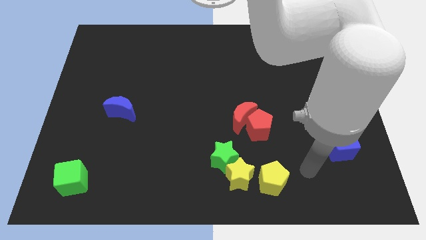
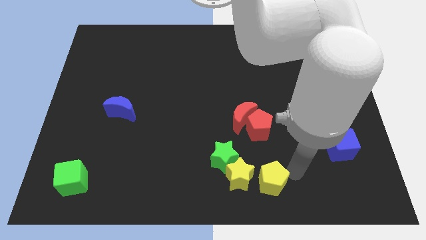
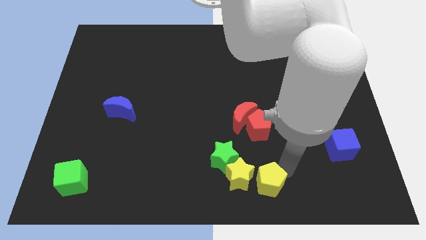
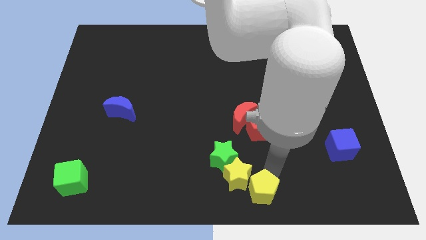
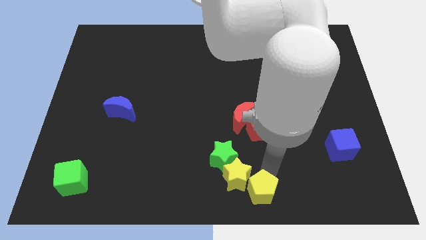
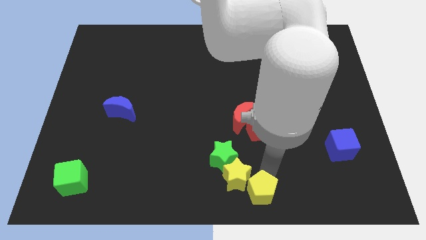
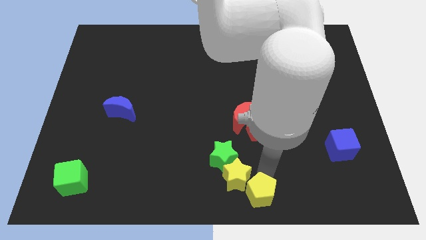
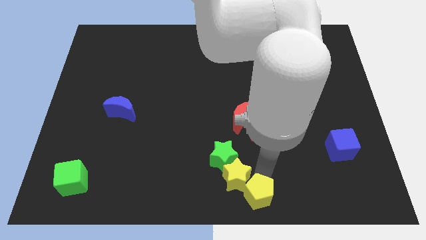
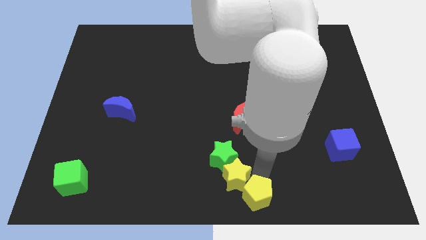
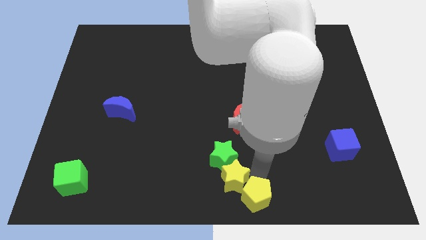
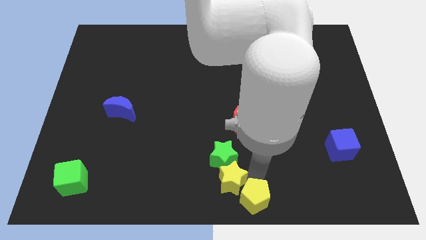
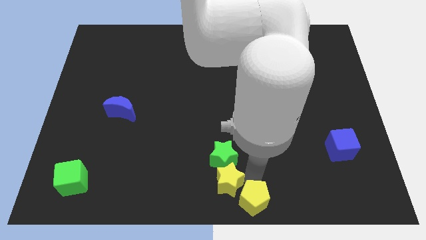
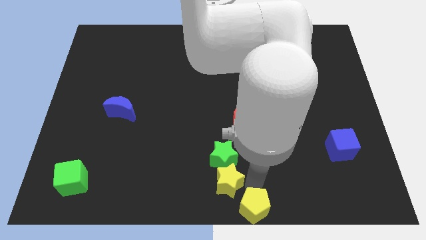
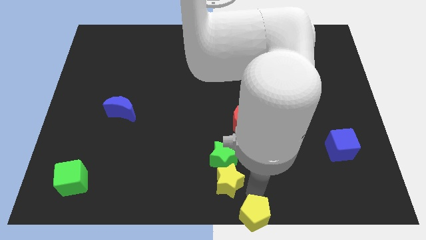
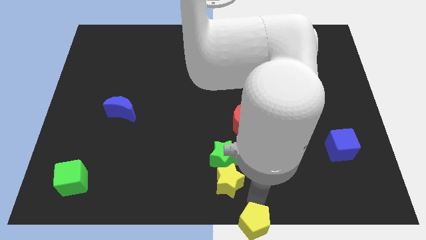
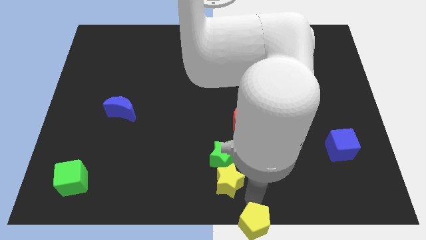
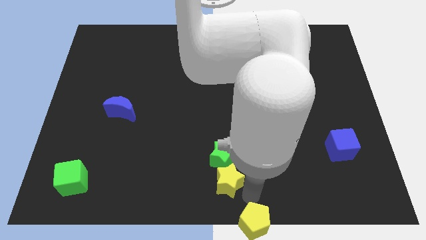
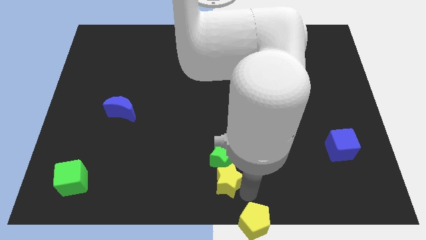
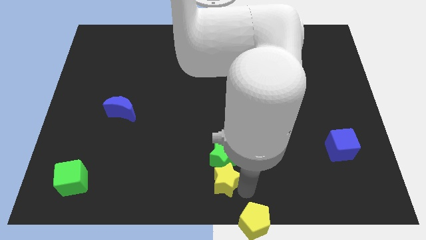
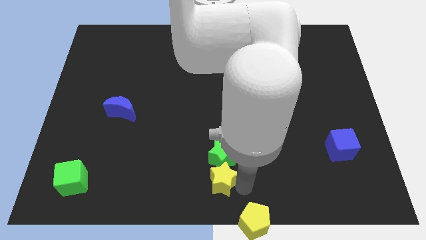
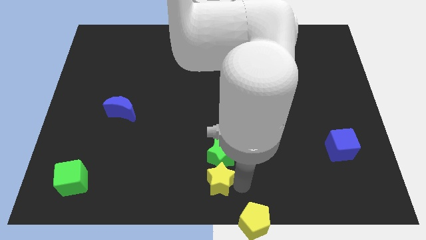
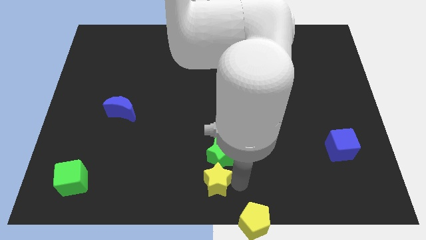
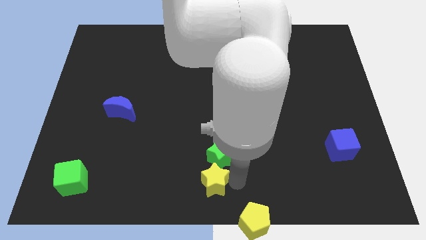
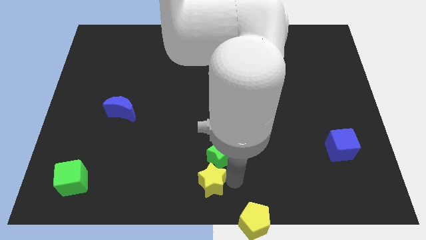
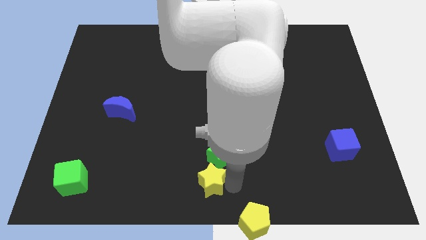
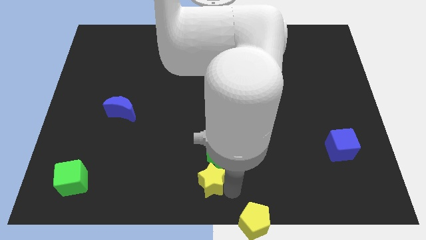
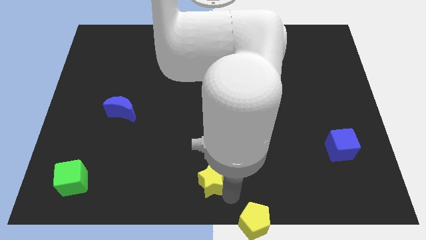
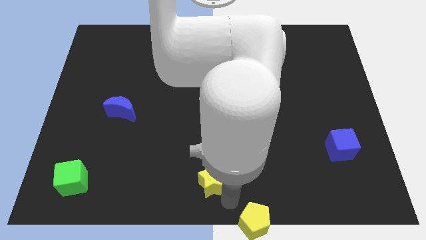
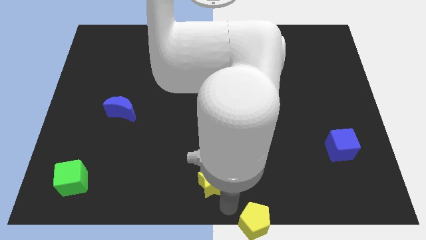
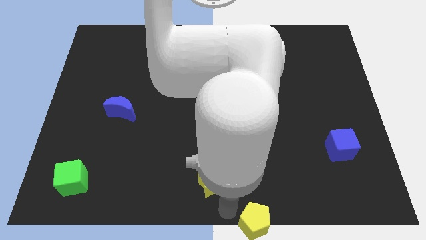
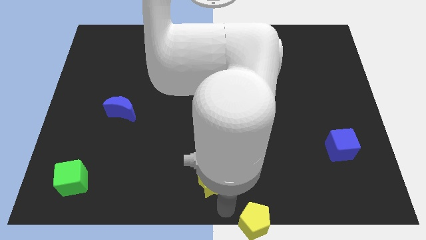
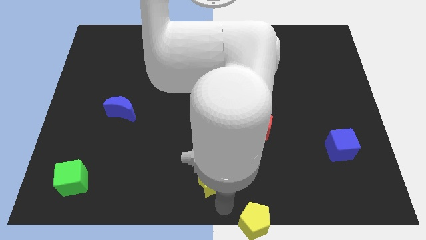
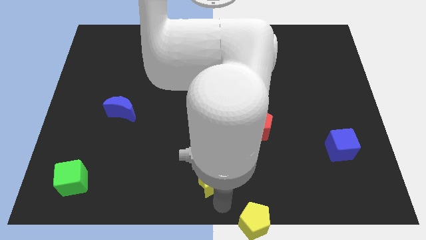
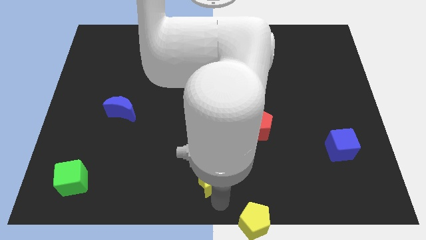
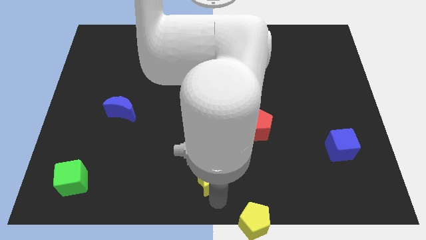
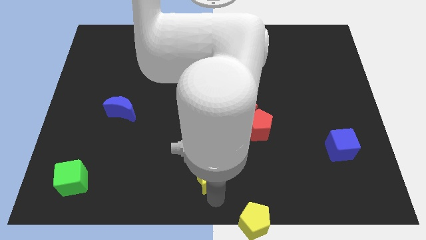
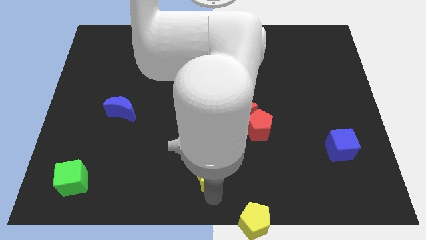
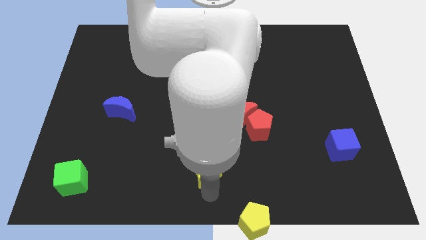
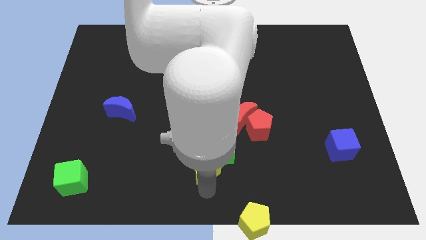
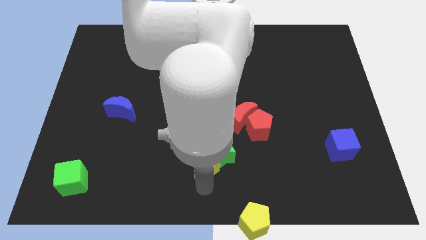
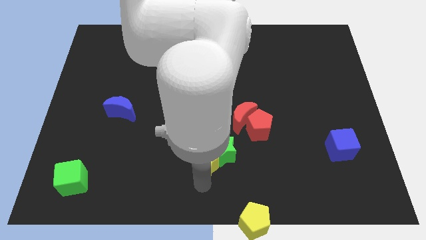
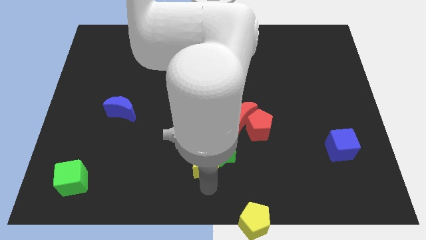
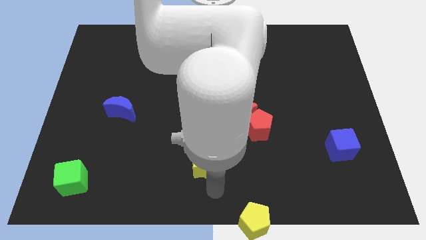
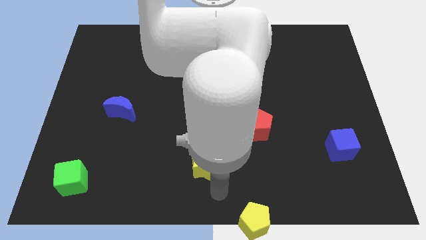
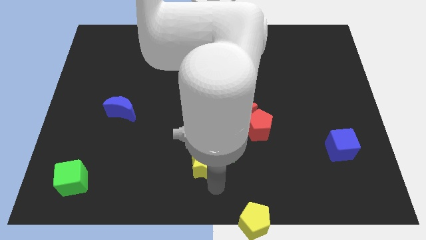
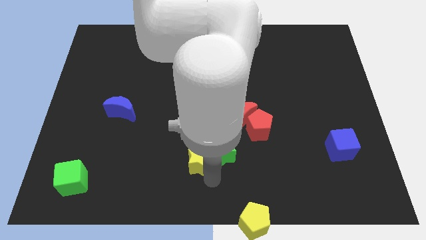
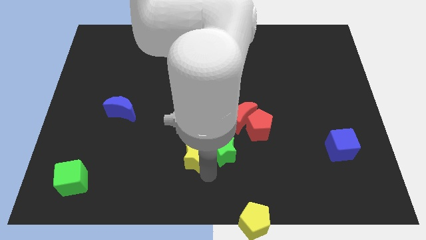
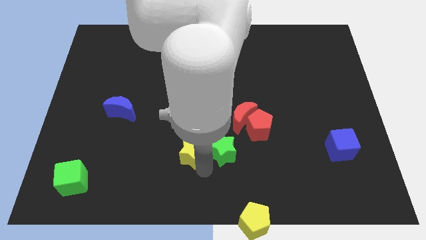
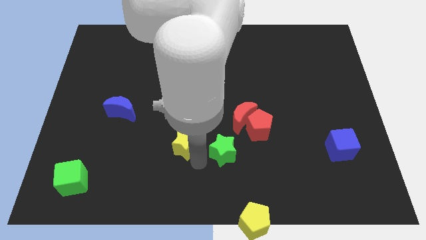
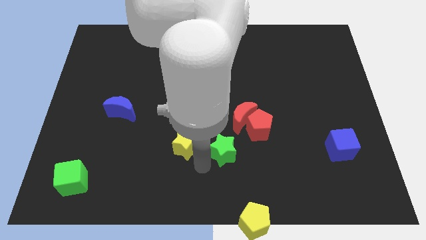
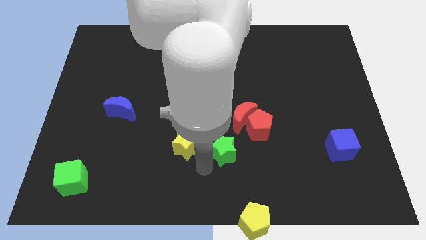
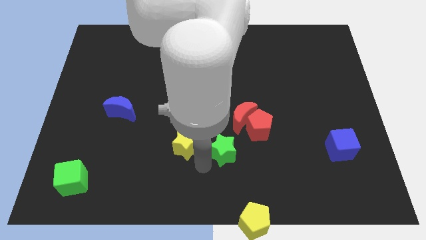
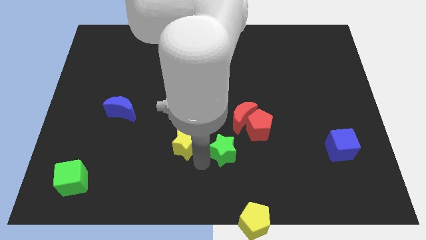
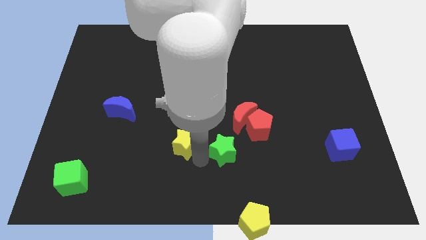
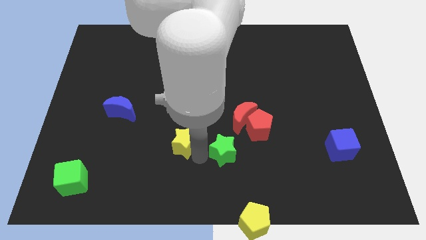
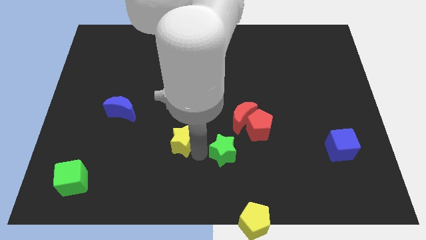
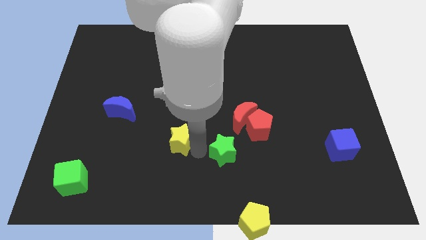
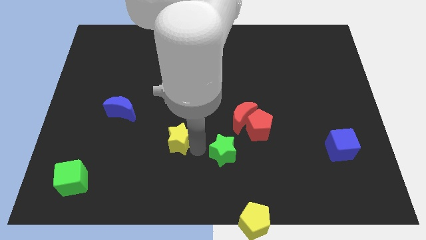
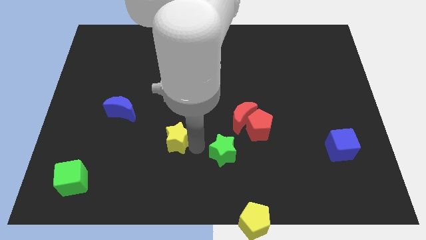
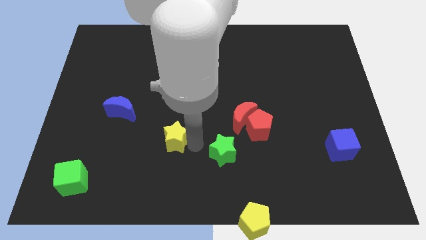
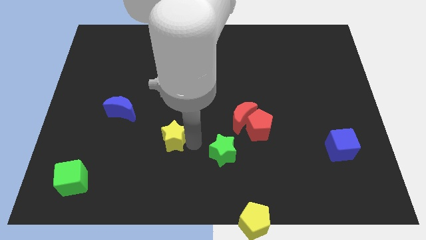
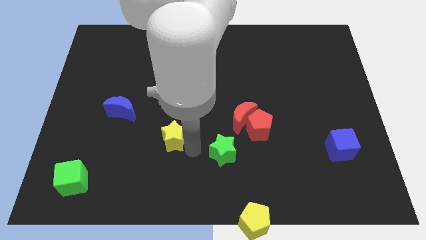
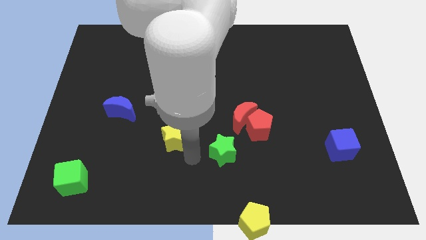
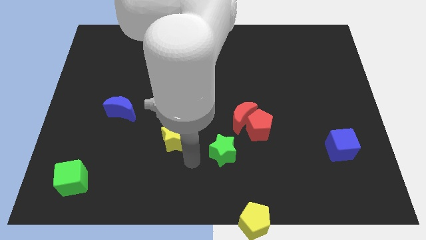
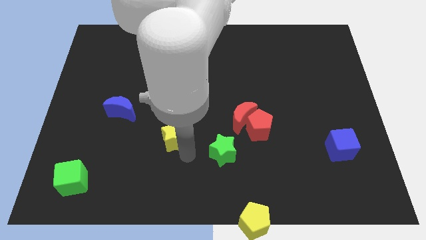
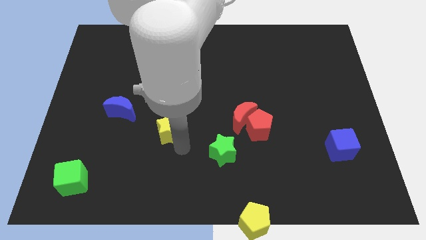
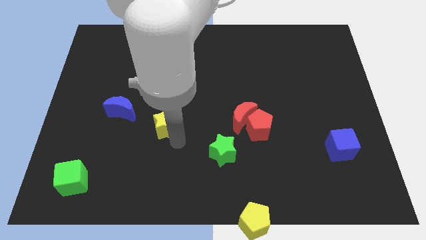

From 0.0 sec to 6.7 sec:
move the yellow star upwards and to the left diagonally

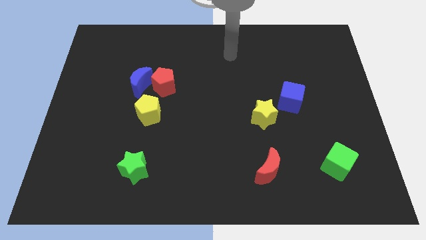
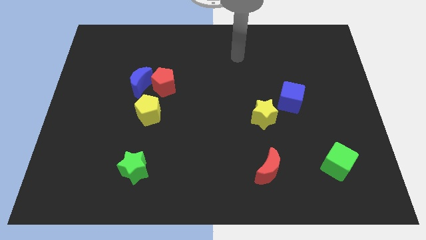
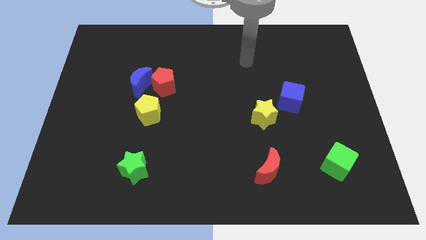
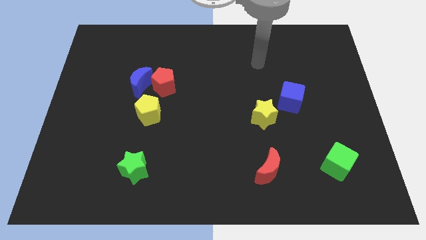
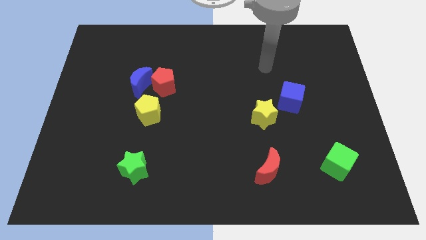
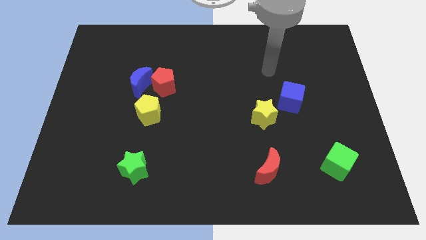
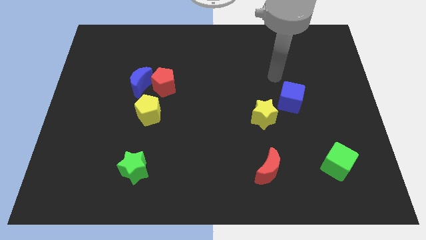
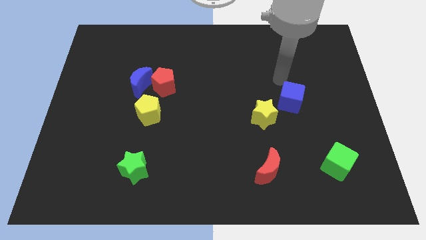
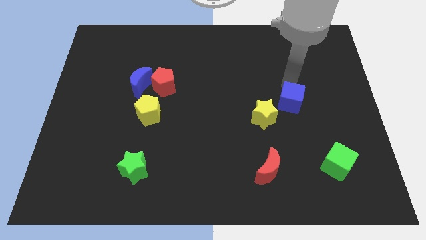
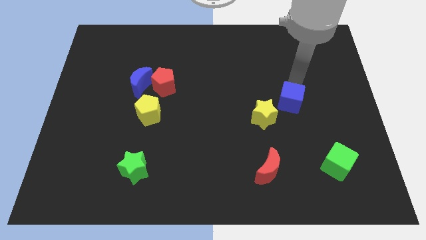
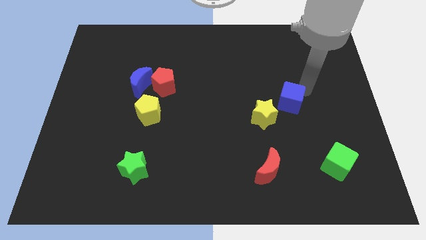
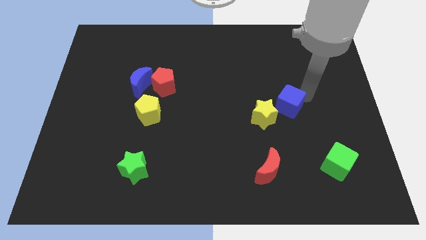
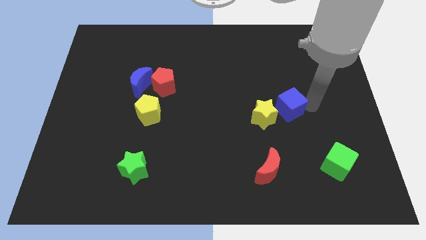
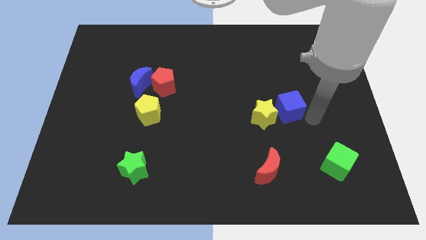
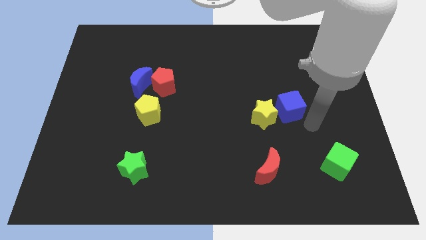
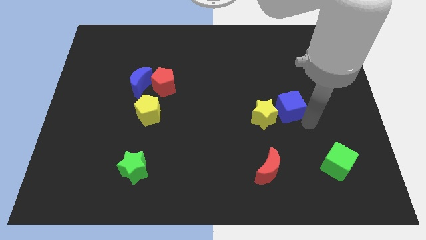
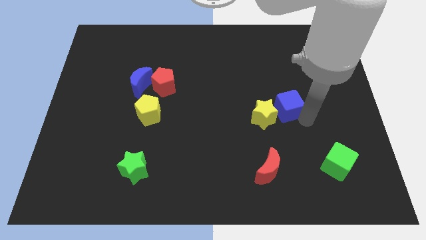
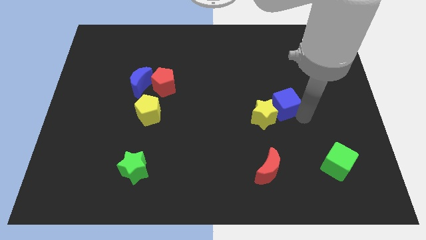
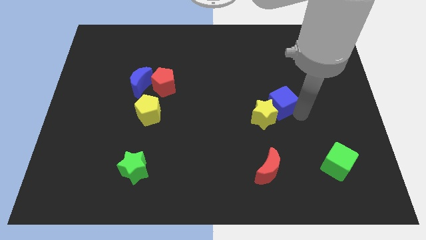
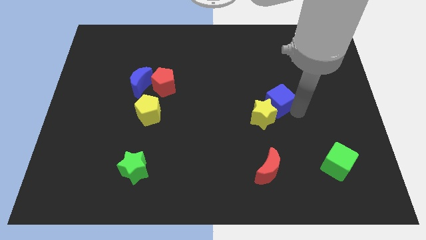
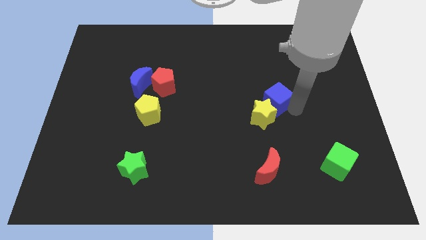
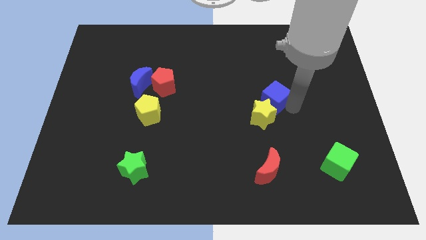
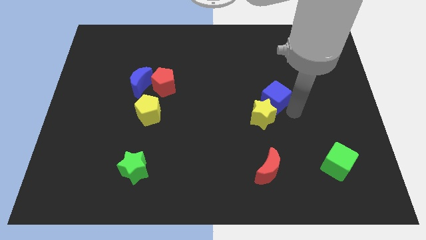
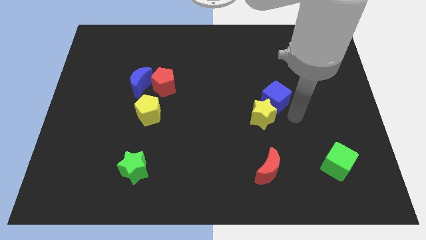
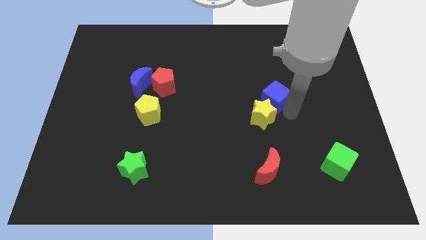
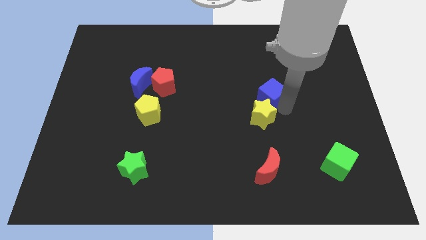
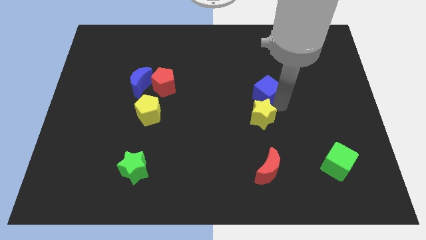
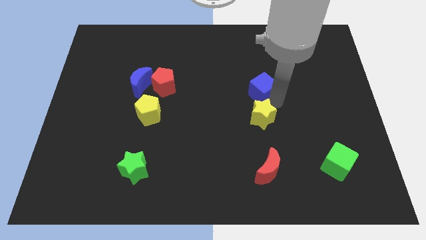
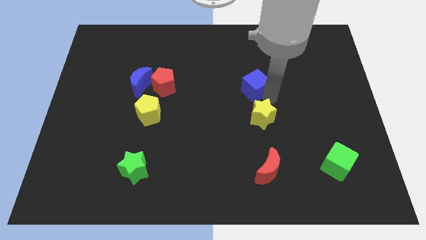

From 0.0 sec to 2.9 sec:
push the blue cube a little upwards and left diagonally
